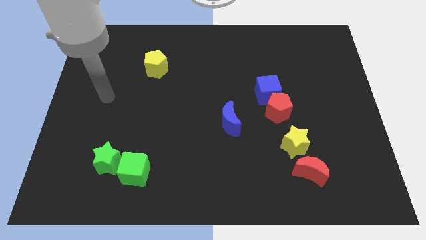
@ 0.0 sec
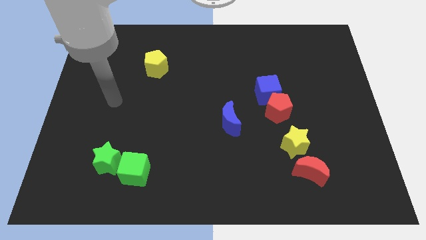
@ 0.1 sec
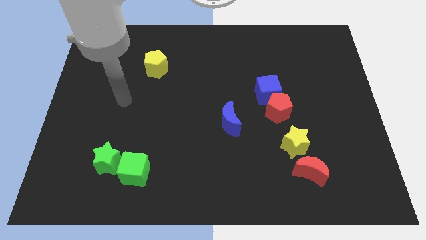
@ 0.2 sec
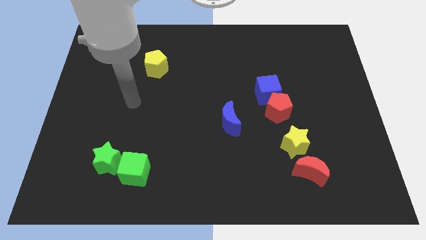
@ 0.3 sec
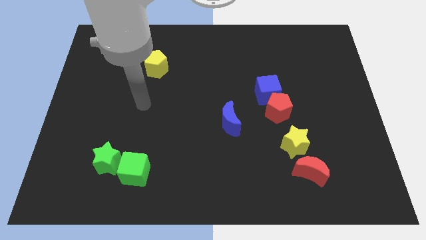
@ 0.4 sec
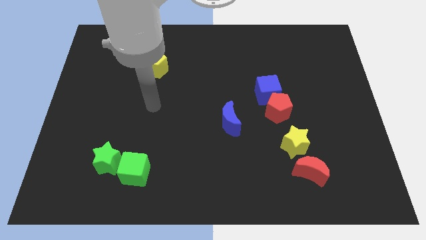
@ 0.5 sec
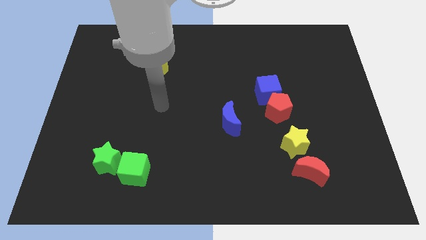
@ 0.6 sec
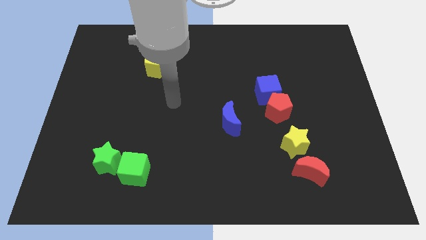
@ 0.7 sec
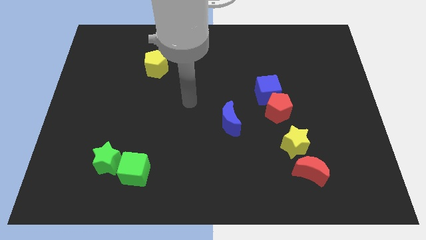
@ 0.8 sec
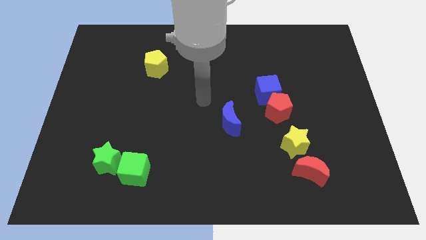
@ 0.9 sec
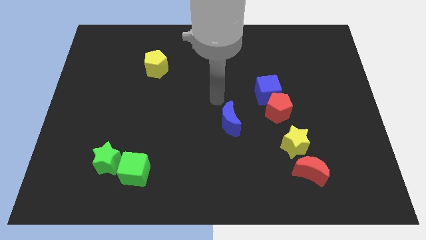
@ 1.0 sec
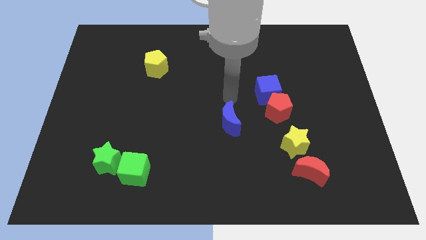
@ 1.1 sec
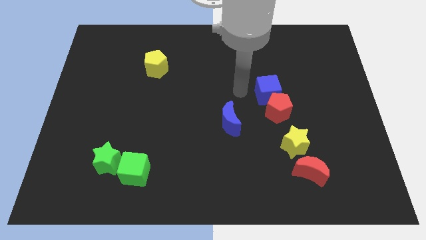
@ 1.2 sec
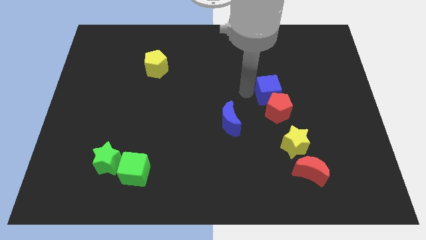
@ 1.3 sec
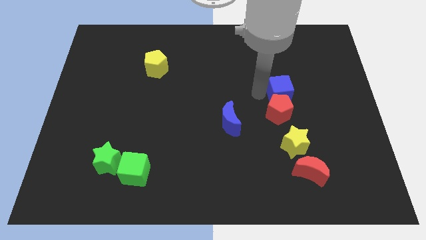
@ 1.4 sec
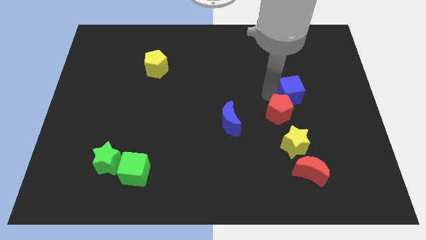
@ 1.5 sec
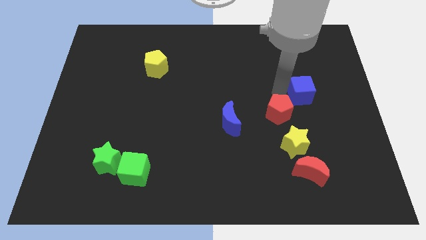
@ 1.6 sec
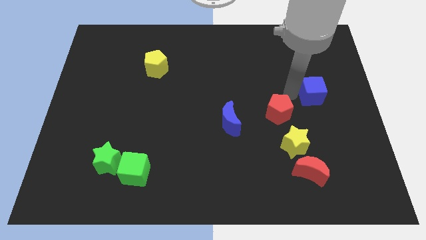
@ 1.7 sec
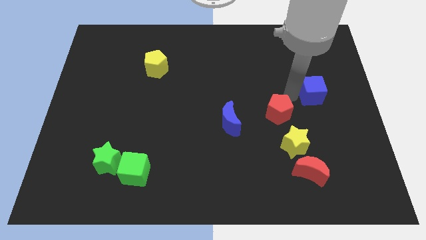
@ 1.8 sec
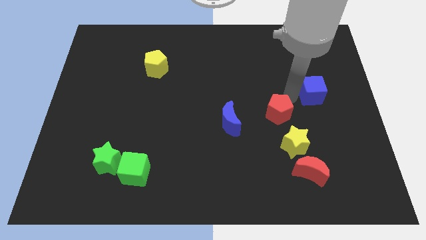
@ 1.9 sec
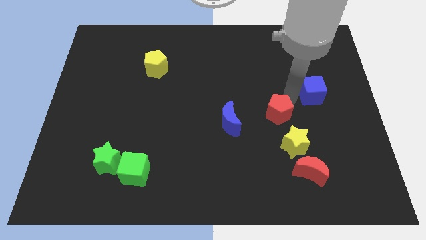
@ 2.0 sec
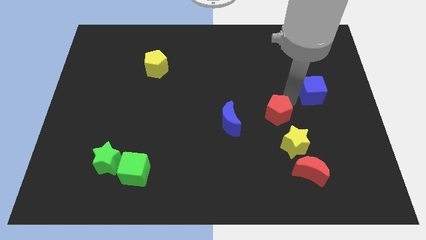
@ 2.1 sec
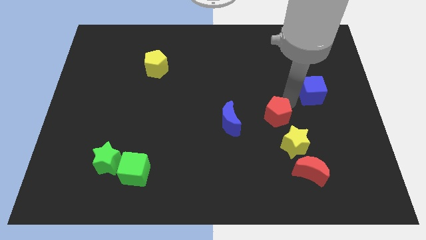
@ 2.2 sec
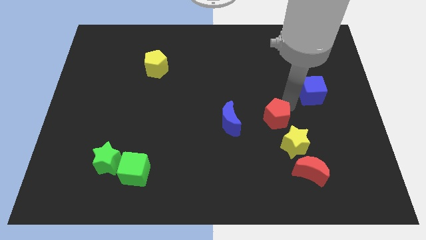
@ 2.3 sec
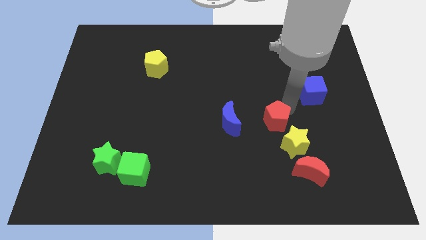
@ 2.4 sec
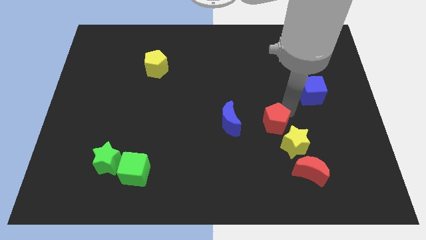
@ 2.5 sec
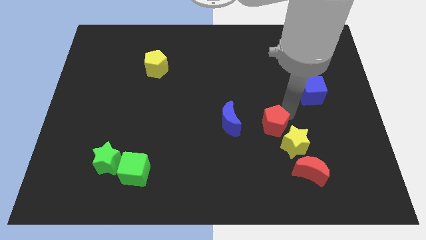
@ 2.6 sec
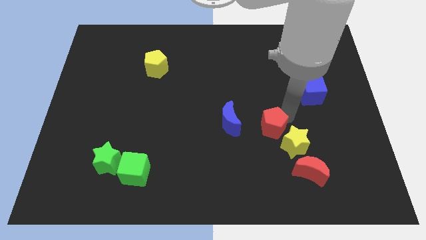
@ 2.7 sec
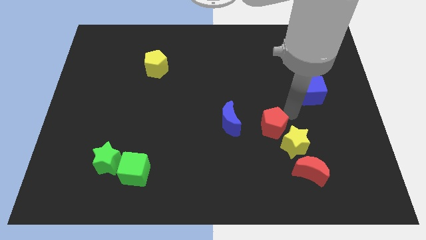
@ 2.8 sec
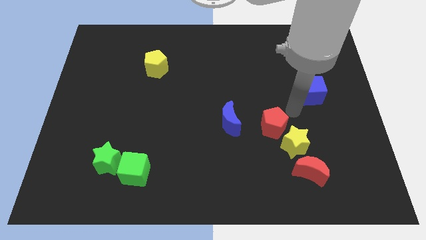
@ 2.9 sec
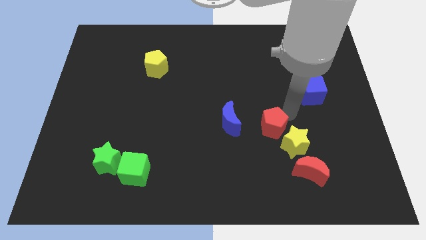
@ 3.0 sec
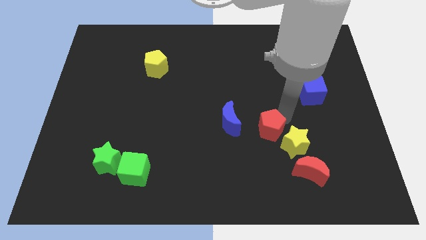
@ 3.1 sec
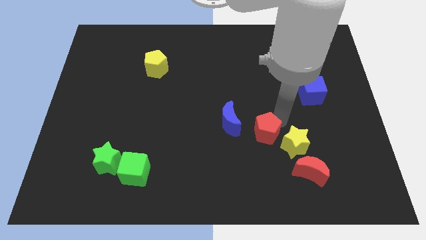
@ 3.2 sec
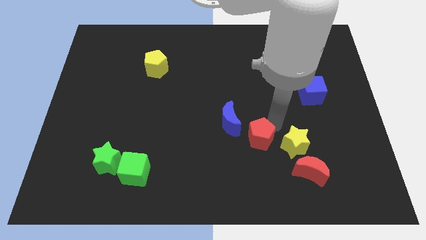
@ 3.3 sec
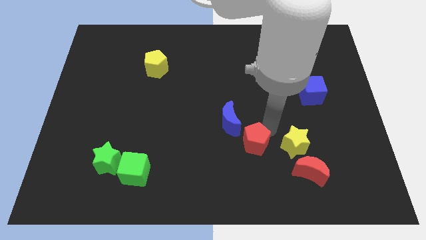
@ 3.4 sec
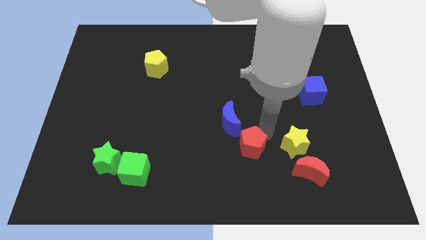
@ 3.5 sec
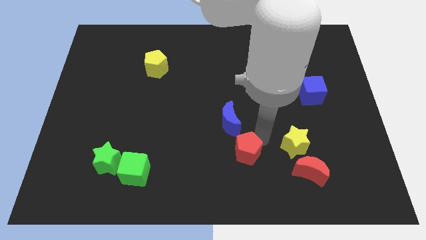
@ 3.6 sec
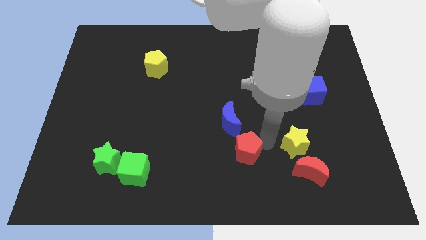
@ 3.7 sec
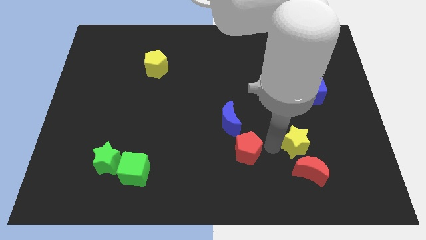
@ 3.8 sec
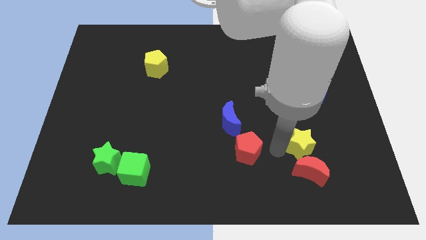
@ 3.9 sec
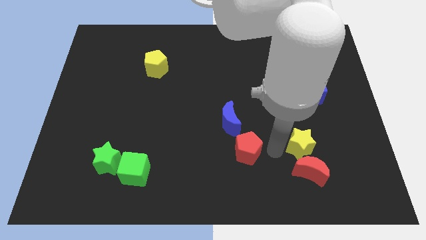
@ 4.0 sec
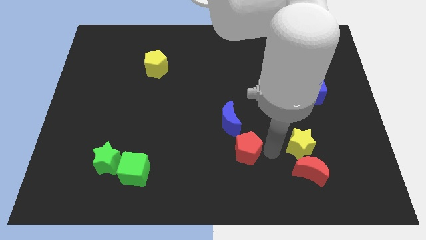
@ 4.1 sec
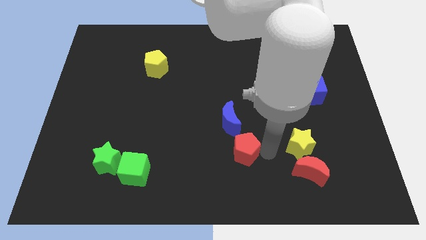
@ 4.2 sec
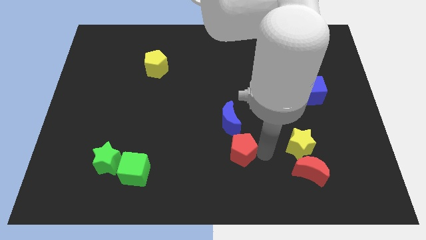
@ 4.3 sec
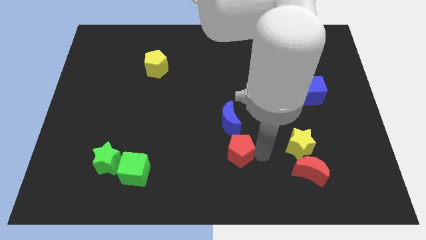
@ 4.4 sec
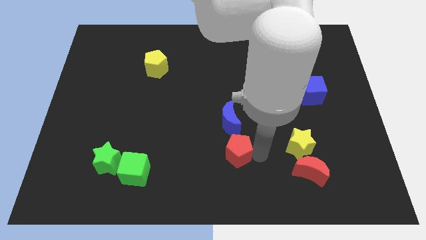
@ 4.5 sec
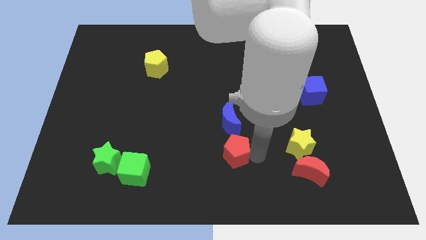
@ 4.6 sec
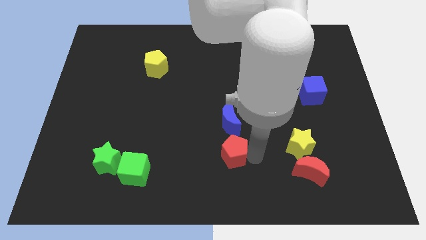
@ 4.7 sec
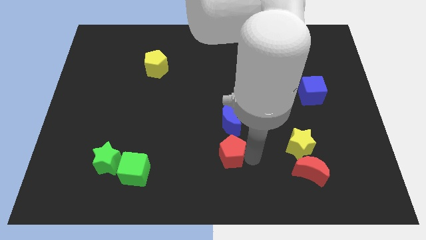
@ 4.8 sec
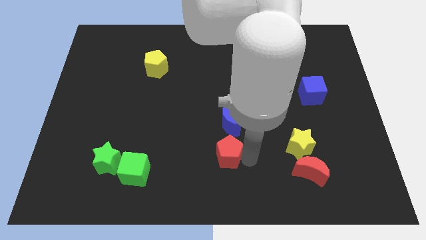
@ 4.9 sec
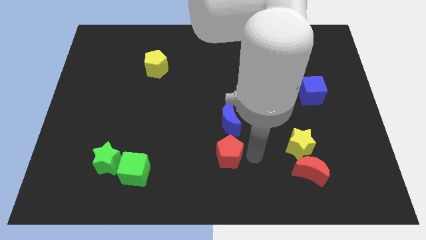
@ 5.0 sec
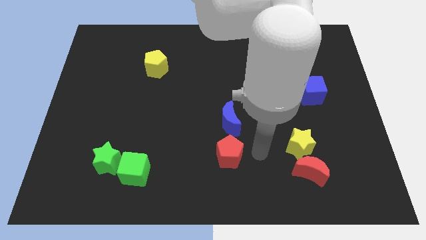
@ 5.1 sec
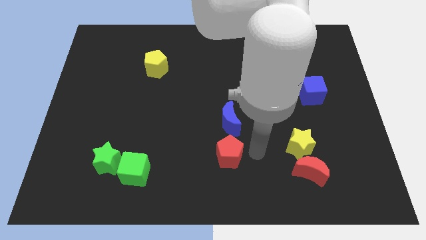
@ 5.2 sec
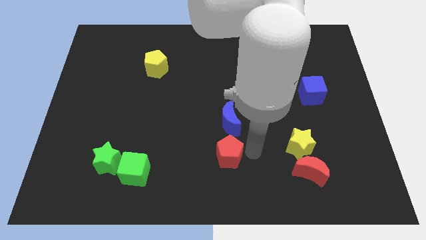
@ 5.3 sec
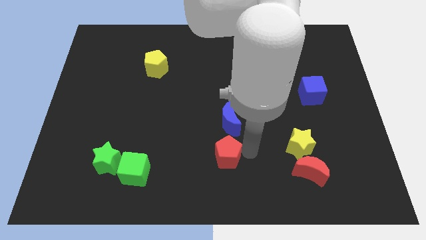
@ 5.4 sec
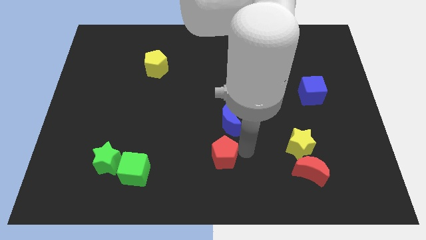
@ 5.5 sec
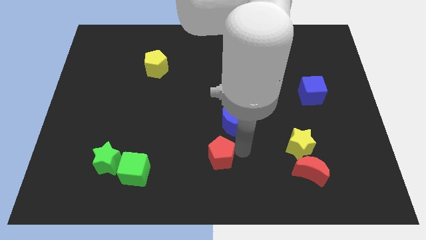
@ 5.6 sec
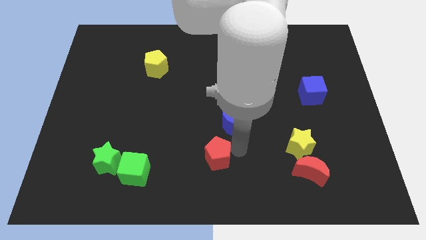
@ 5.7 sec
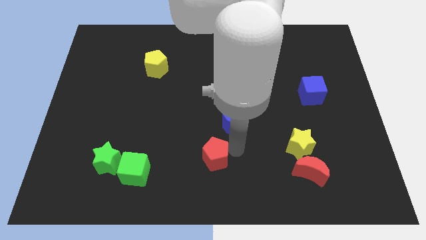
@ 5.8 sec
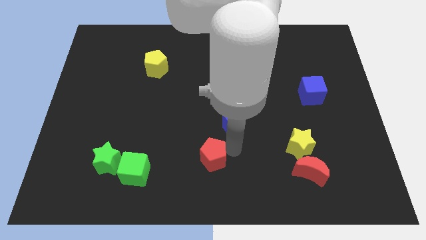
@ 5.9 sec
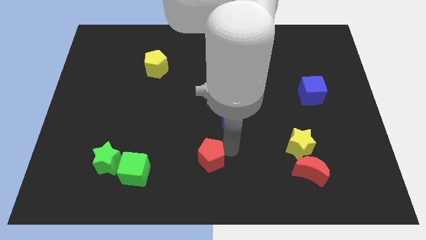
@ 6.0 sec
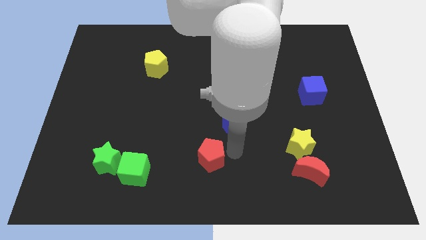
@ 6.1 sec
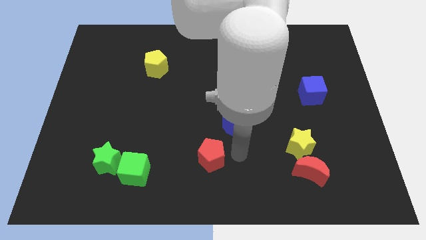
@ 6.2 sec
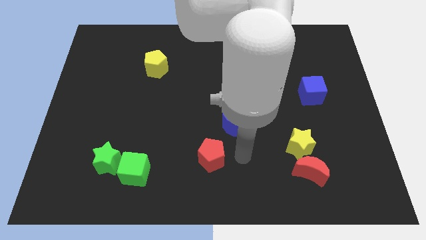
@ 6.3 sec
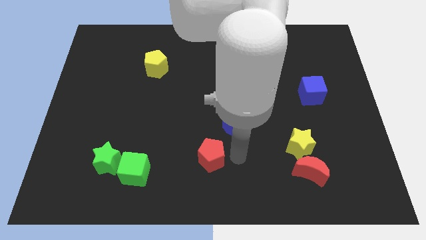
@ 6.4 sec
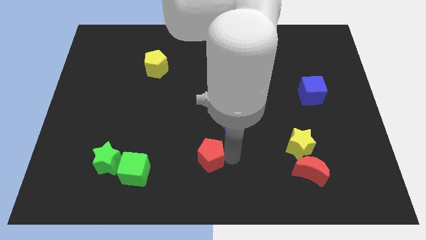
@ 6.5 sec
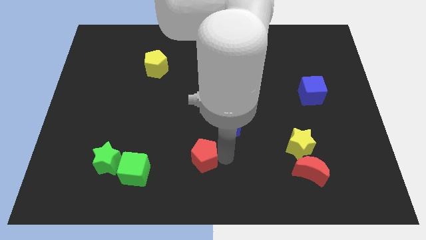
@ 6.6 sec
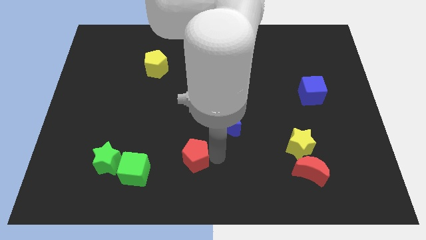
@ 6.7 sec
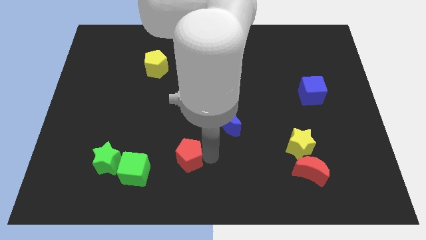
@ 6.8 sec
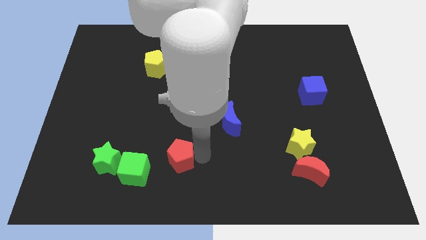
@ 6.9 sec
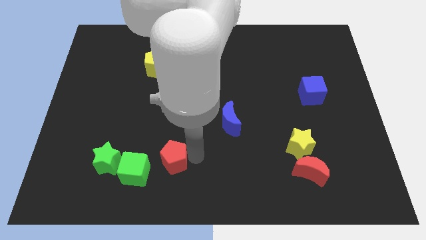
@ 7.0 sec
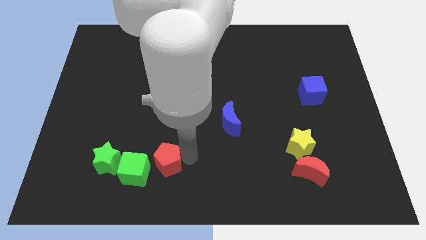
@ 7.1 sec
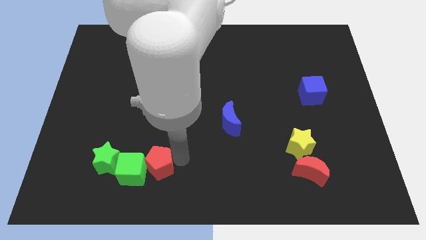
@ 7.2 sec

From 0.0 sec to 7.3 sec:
slide the red pentagon next to the green cube
